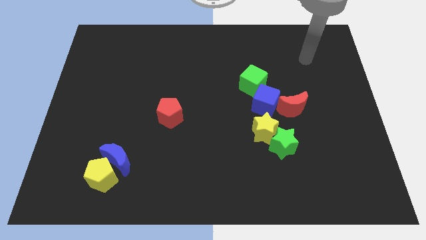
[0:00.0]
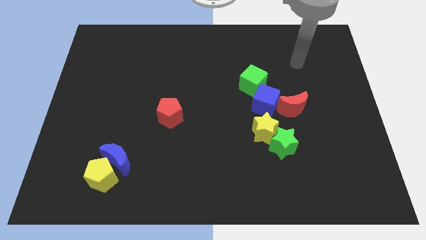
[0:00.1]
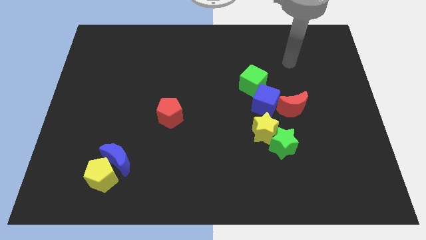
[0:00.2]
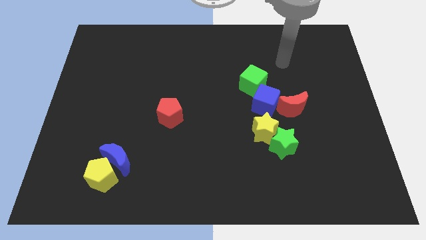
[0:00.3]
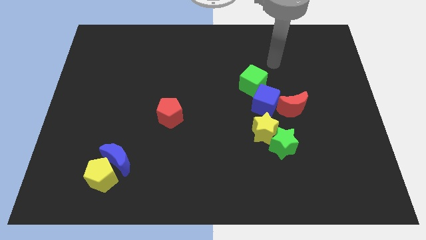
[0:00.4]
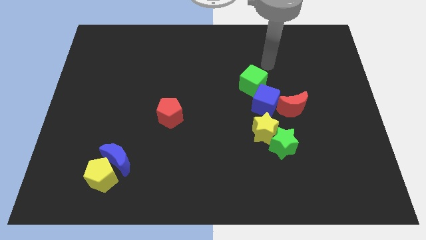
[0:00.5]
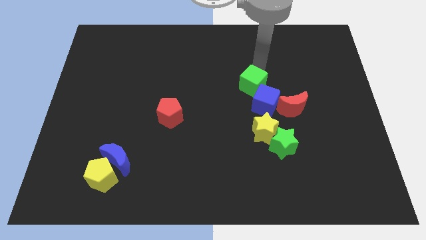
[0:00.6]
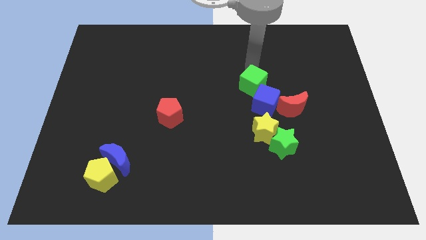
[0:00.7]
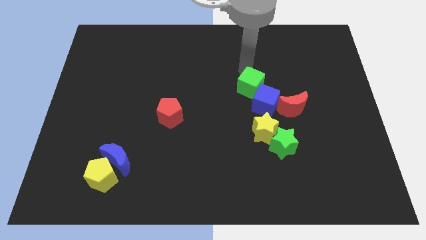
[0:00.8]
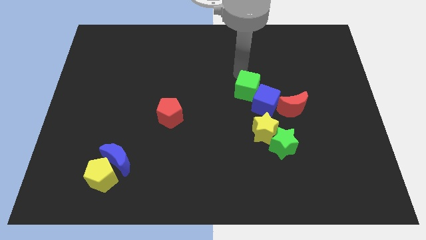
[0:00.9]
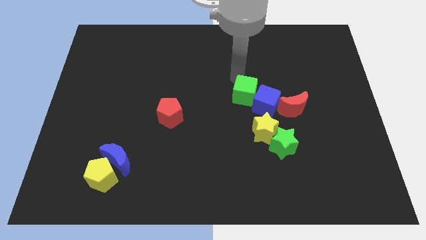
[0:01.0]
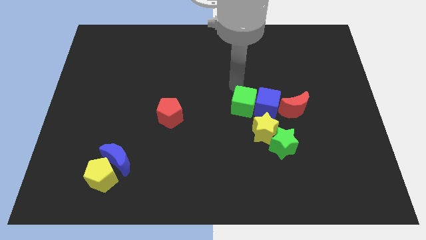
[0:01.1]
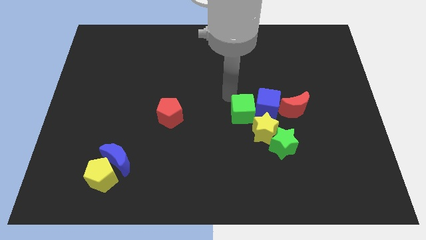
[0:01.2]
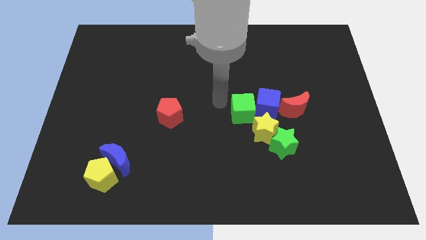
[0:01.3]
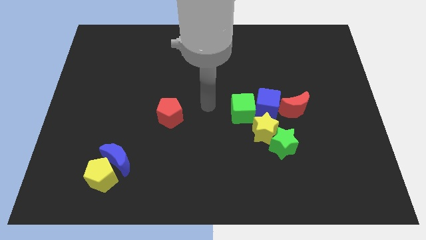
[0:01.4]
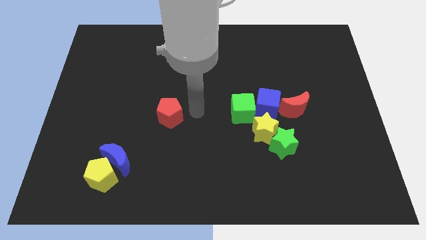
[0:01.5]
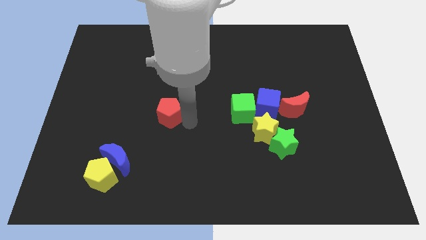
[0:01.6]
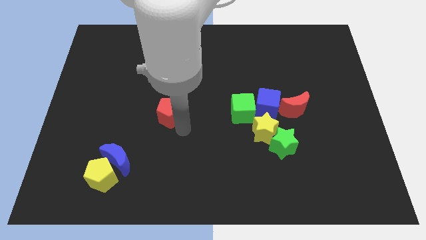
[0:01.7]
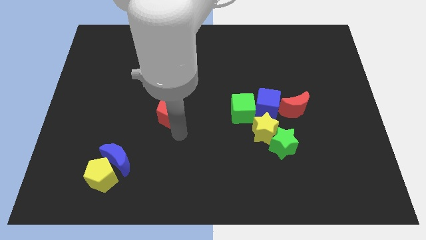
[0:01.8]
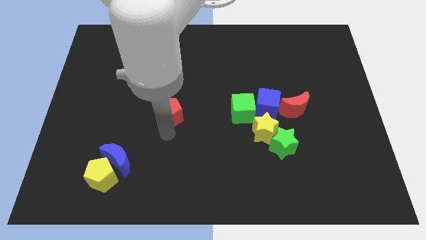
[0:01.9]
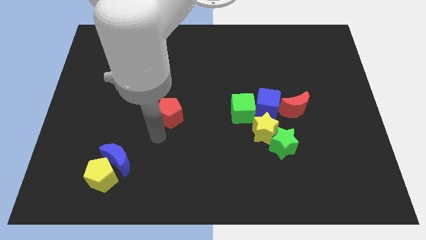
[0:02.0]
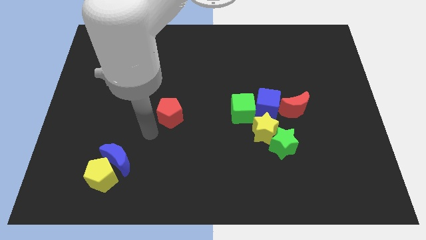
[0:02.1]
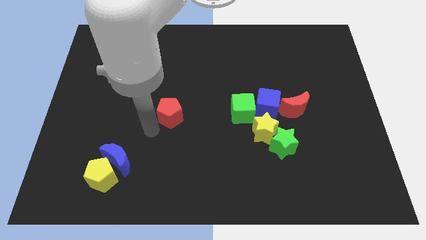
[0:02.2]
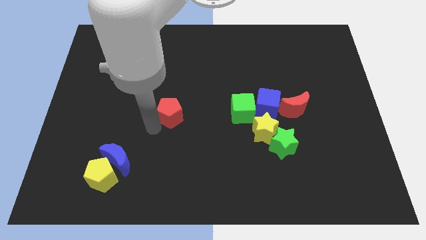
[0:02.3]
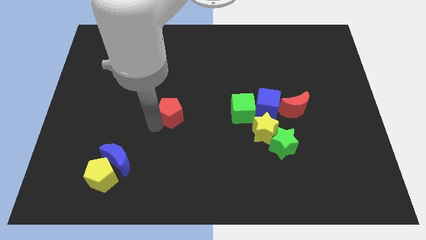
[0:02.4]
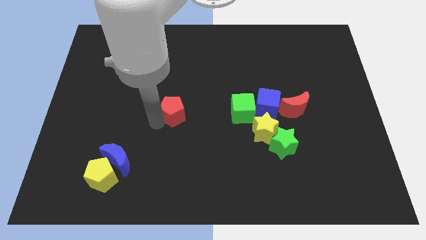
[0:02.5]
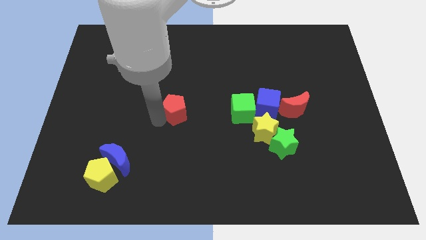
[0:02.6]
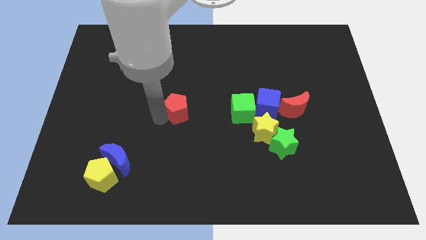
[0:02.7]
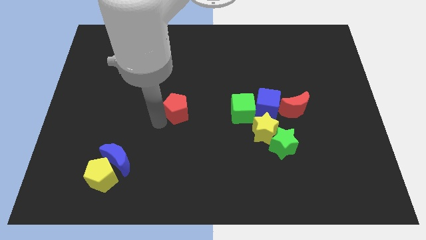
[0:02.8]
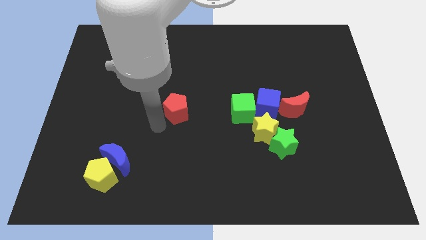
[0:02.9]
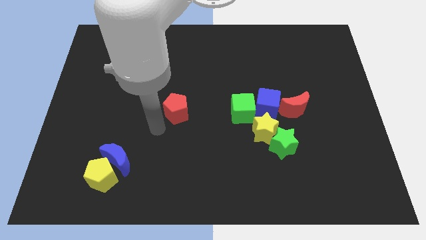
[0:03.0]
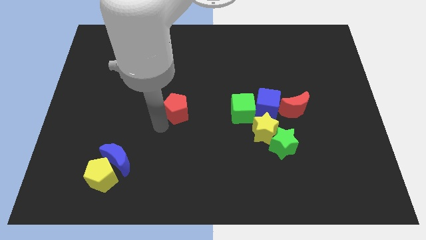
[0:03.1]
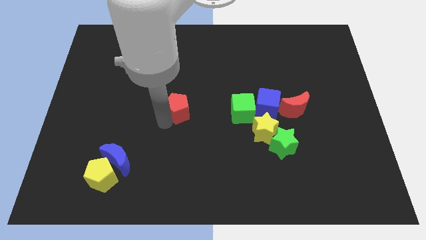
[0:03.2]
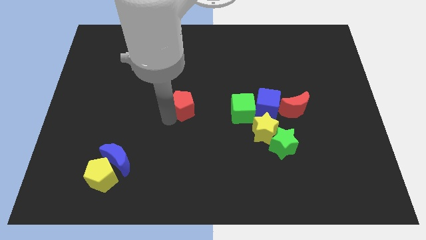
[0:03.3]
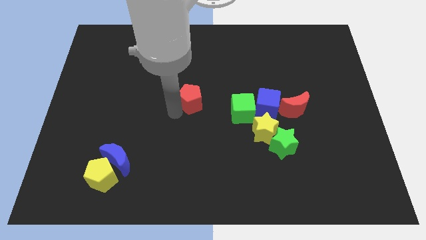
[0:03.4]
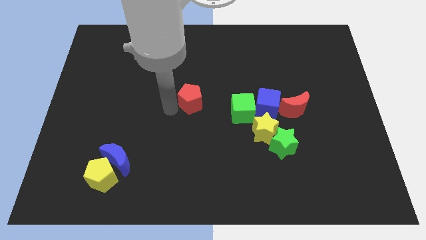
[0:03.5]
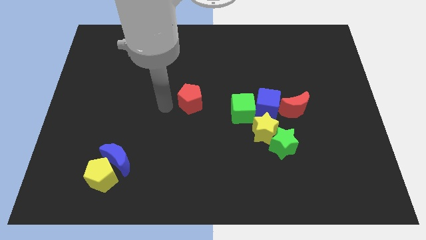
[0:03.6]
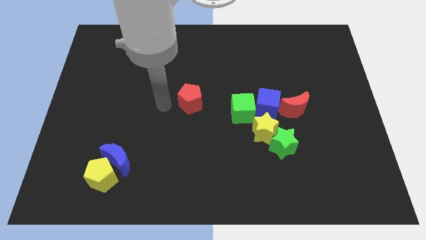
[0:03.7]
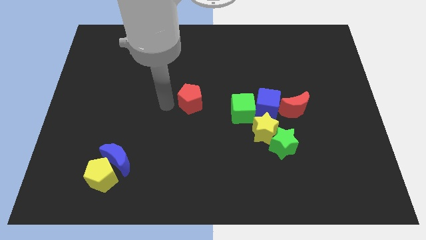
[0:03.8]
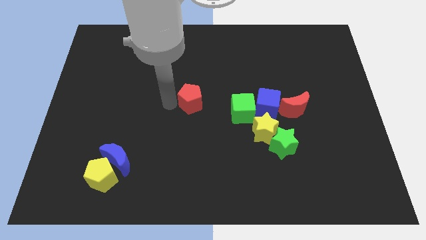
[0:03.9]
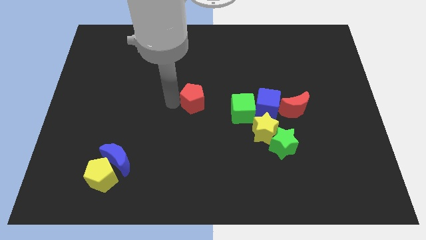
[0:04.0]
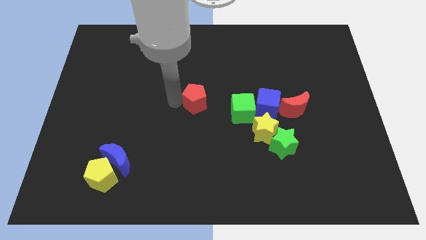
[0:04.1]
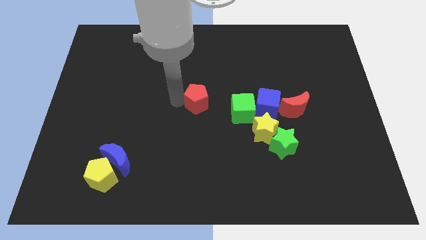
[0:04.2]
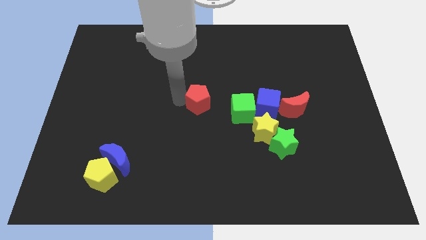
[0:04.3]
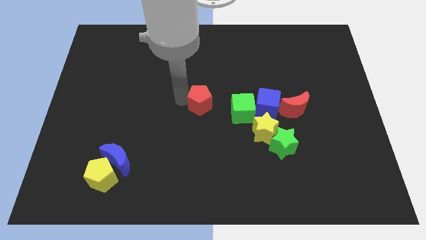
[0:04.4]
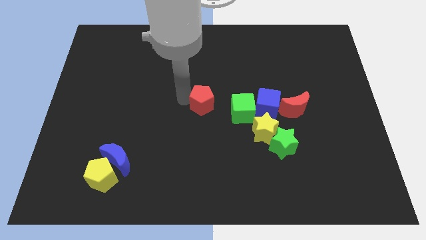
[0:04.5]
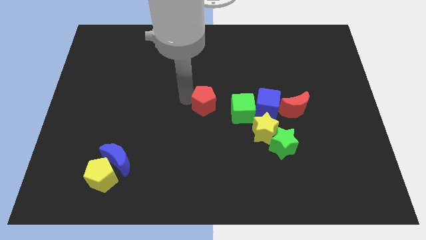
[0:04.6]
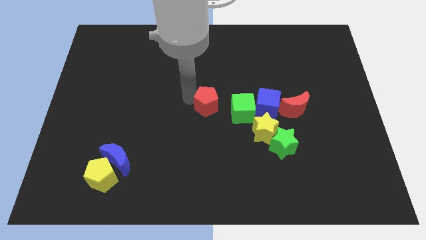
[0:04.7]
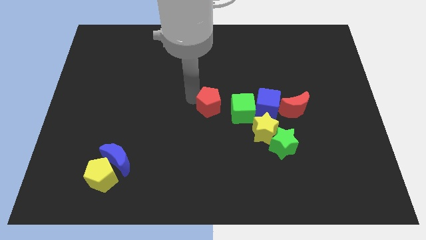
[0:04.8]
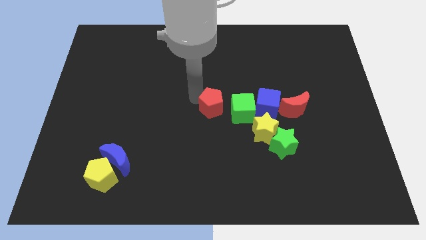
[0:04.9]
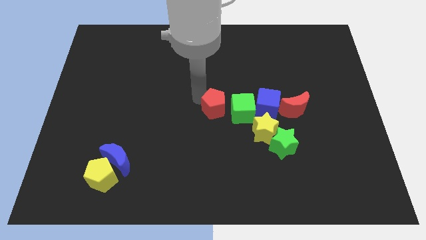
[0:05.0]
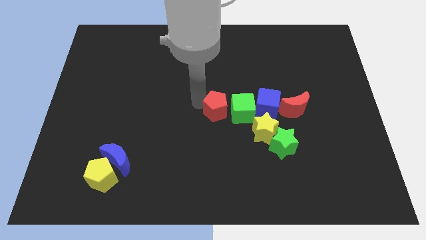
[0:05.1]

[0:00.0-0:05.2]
push the red pentagon close to the green cube
